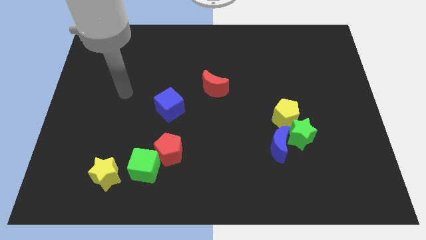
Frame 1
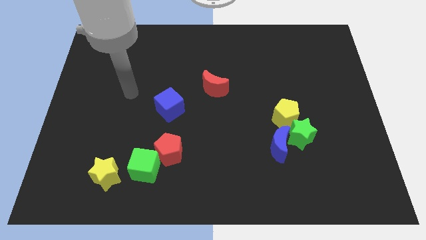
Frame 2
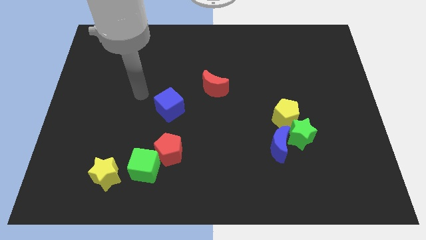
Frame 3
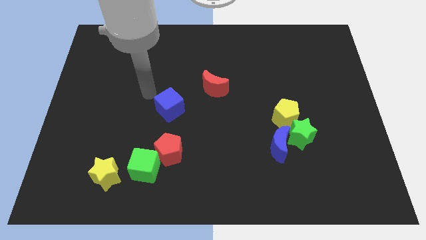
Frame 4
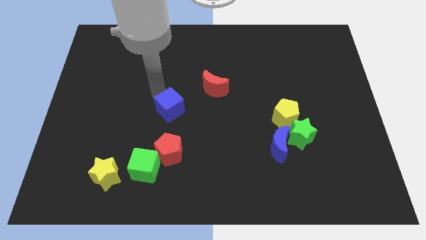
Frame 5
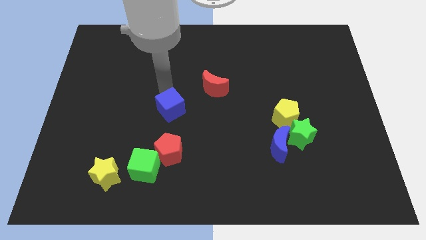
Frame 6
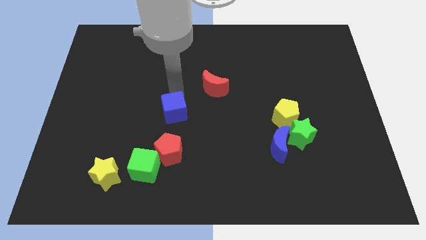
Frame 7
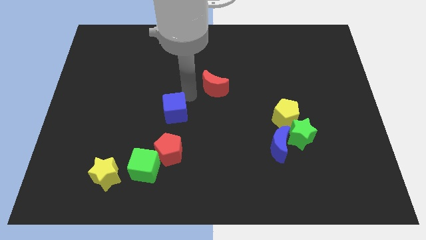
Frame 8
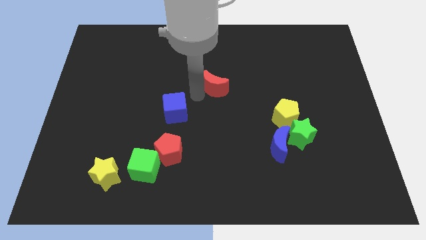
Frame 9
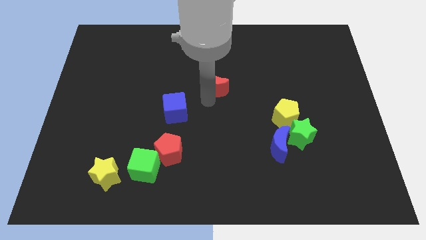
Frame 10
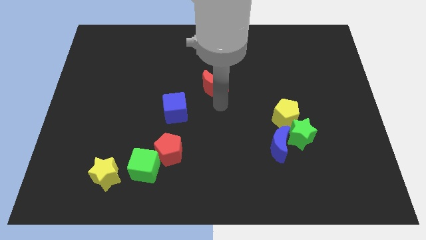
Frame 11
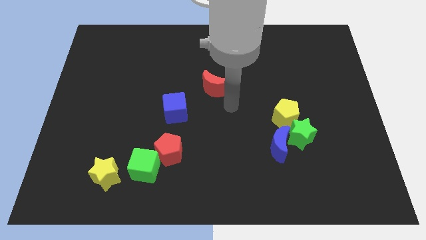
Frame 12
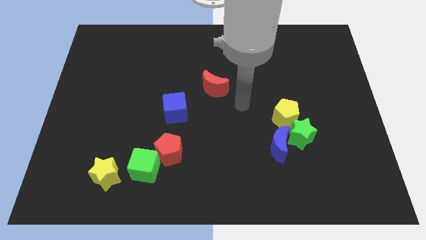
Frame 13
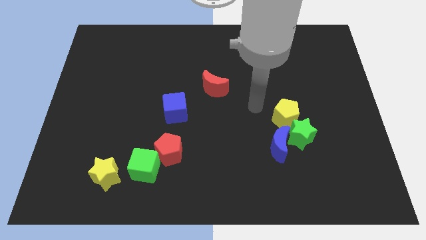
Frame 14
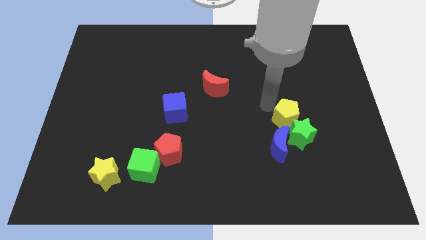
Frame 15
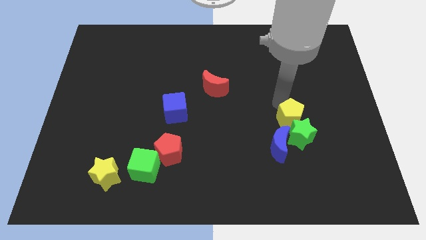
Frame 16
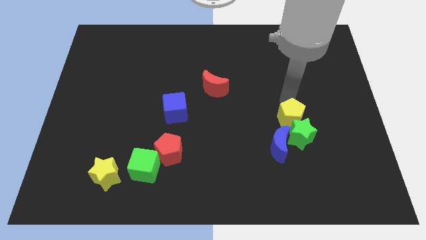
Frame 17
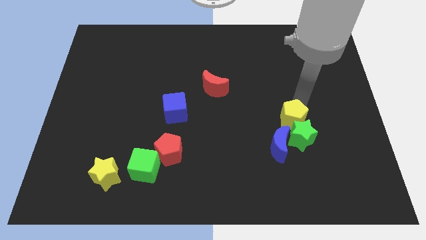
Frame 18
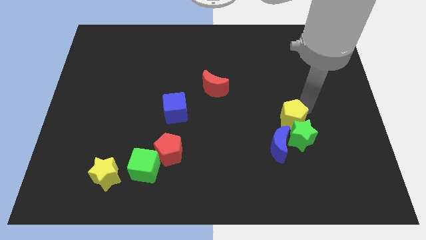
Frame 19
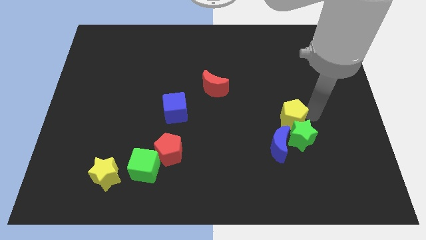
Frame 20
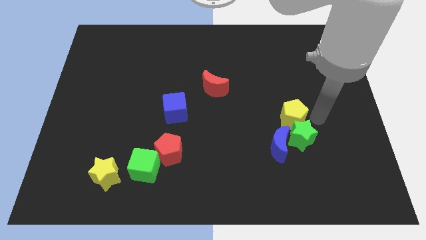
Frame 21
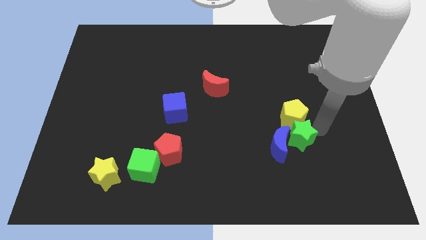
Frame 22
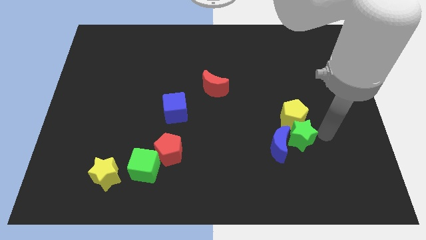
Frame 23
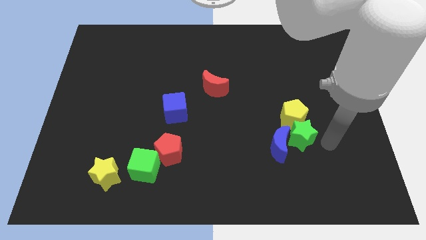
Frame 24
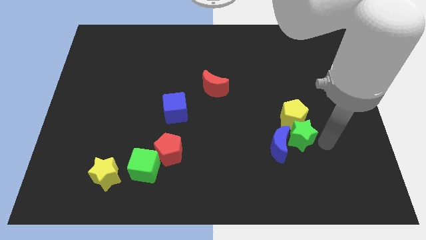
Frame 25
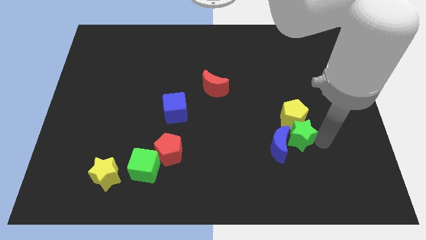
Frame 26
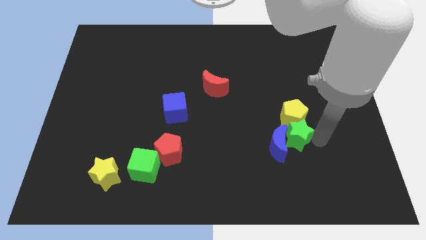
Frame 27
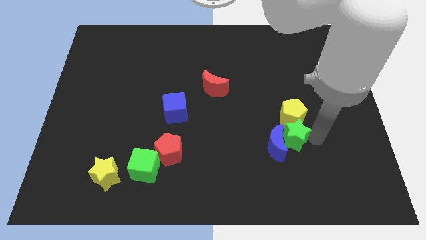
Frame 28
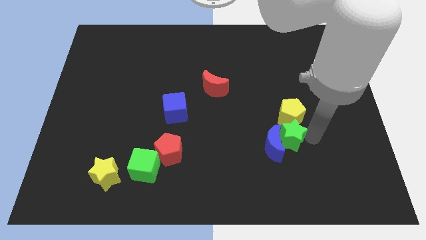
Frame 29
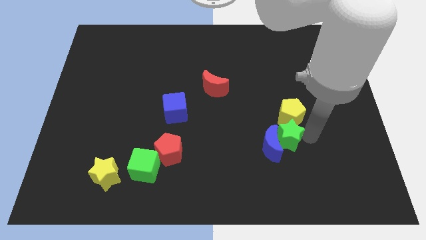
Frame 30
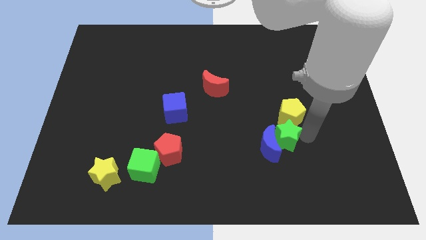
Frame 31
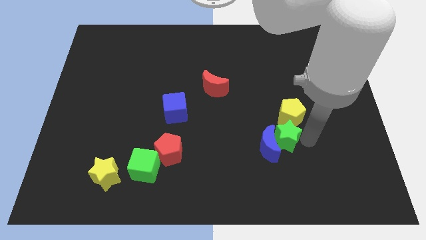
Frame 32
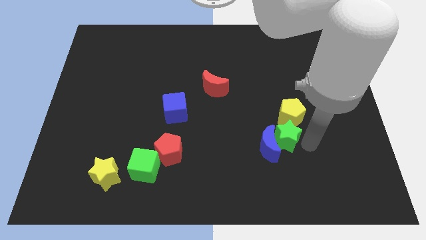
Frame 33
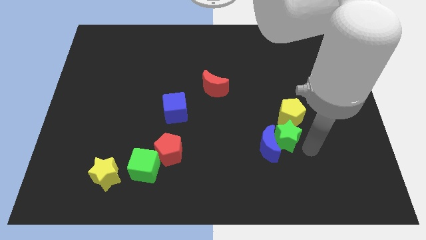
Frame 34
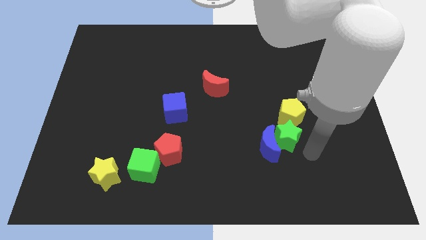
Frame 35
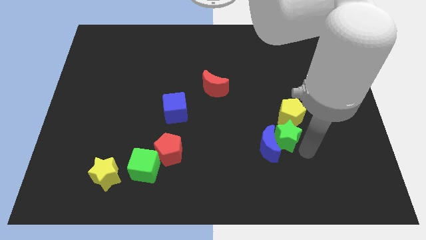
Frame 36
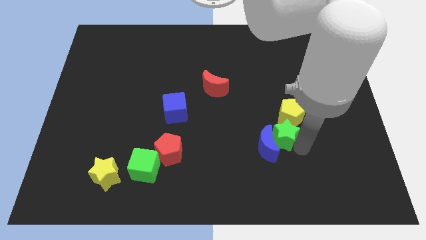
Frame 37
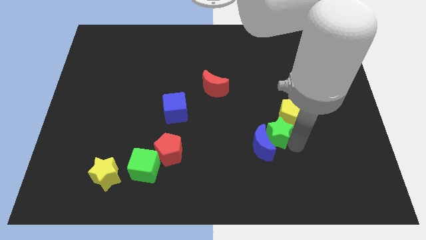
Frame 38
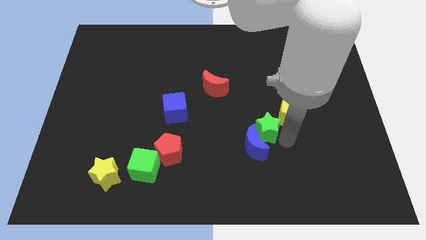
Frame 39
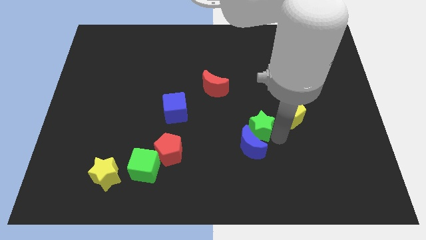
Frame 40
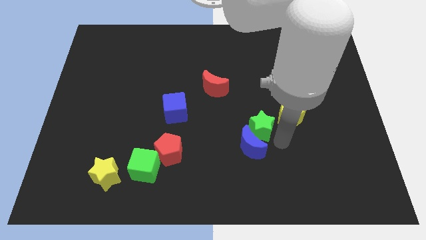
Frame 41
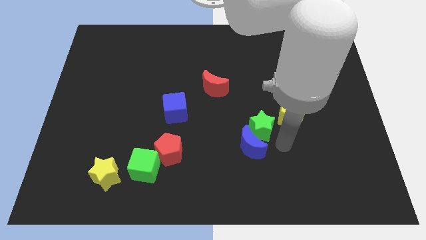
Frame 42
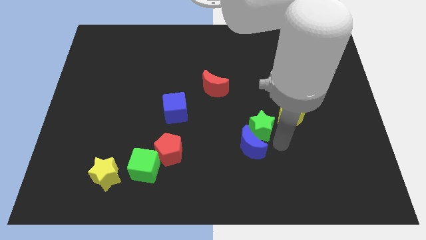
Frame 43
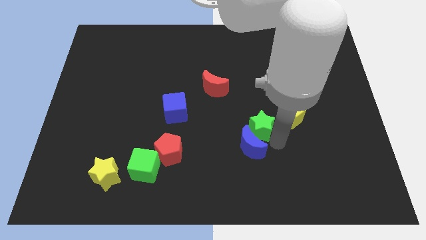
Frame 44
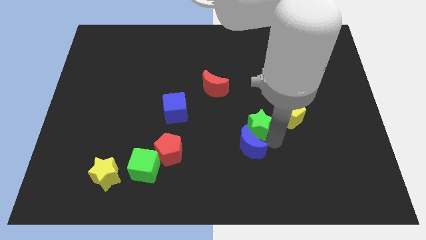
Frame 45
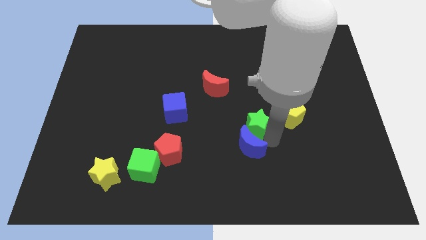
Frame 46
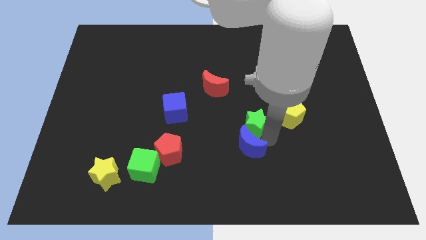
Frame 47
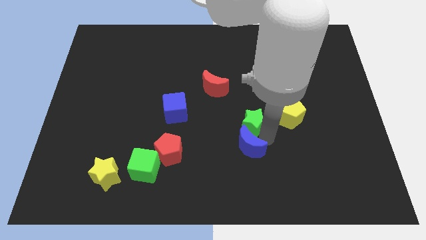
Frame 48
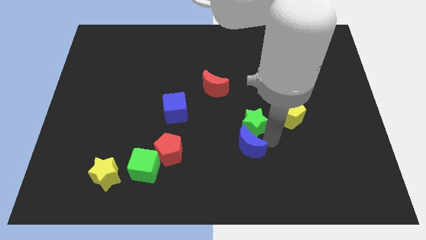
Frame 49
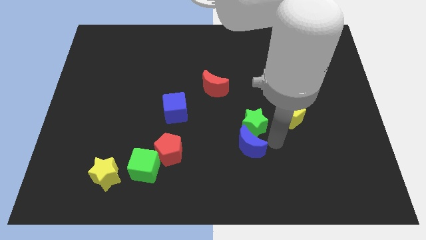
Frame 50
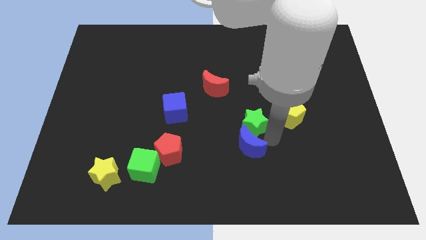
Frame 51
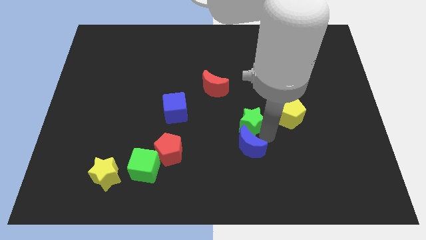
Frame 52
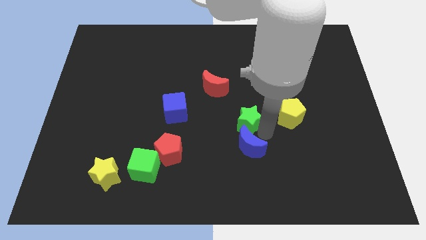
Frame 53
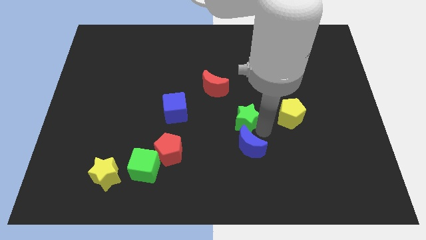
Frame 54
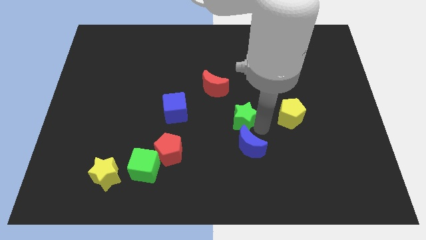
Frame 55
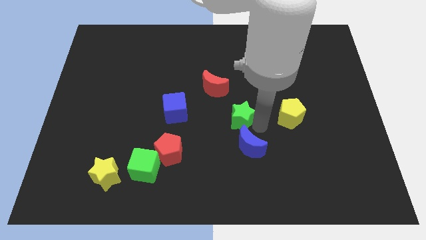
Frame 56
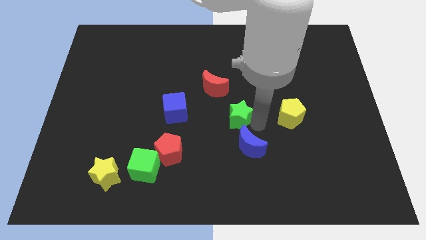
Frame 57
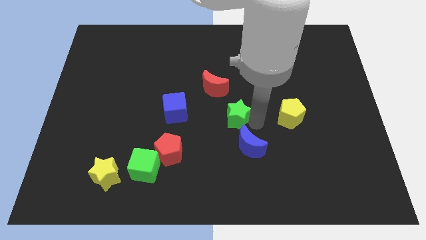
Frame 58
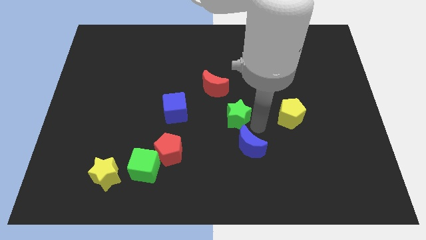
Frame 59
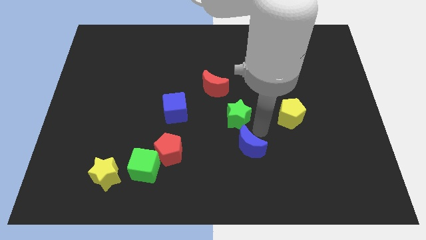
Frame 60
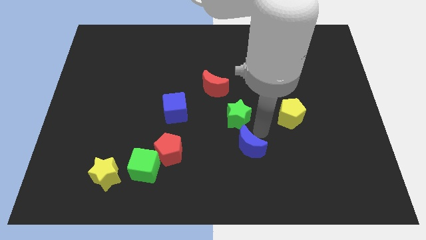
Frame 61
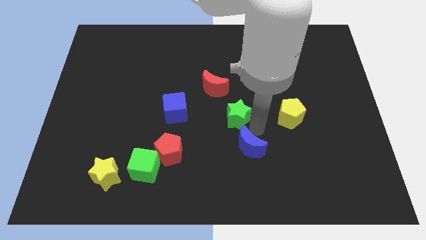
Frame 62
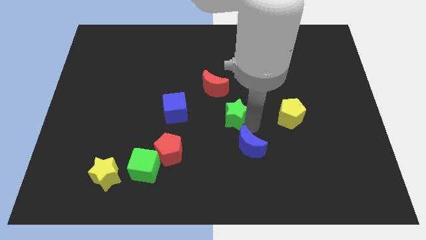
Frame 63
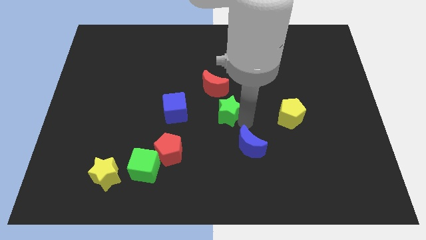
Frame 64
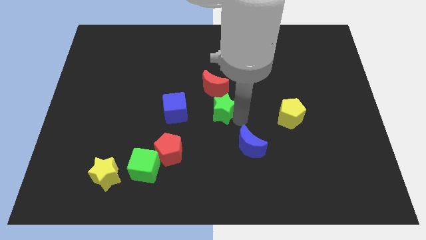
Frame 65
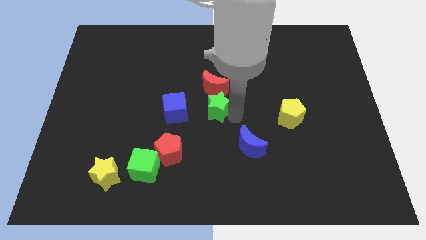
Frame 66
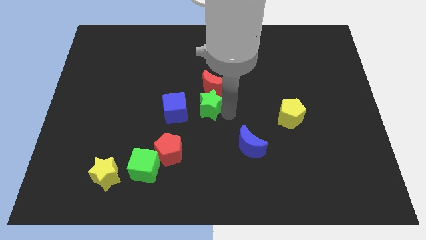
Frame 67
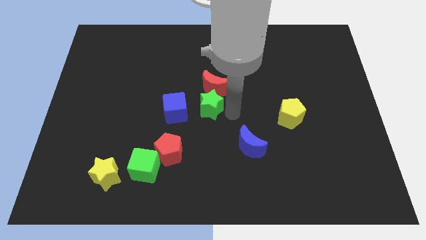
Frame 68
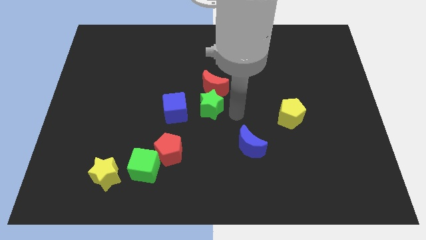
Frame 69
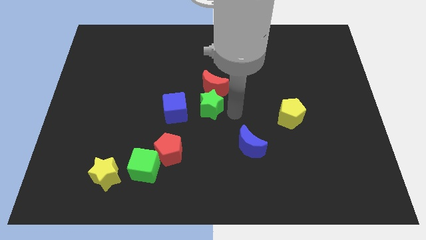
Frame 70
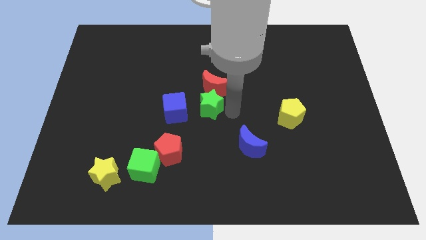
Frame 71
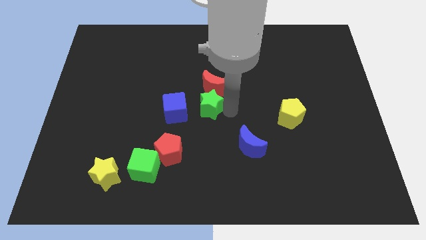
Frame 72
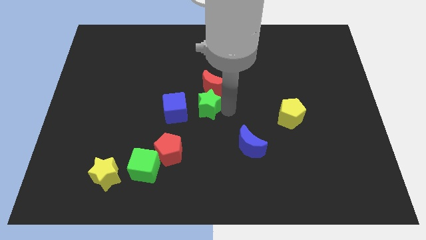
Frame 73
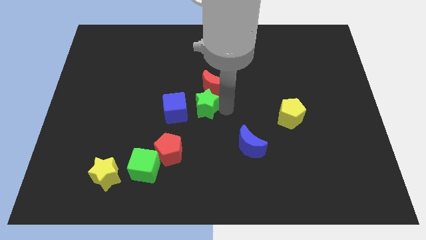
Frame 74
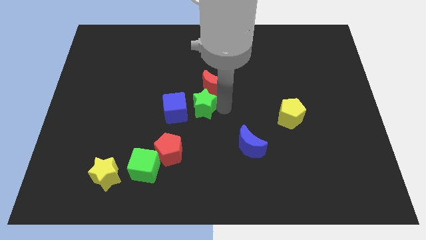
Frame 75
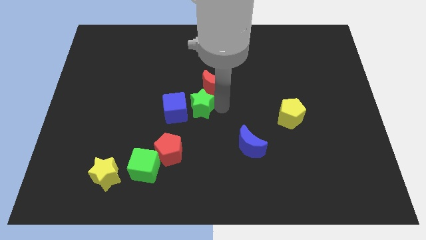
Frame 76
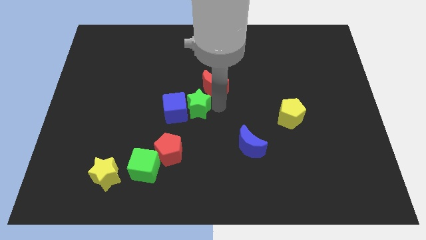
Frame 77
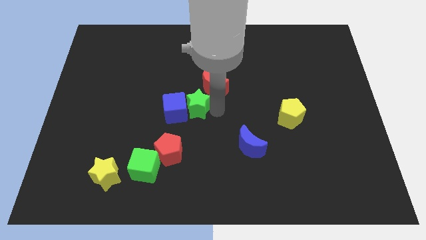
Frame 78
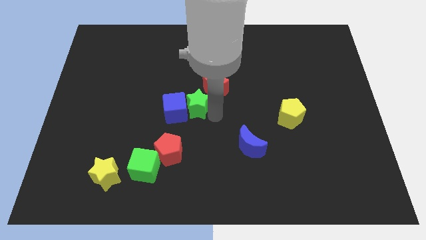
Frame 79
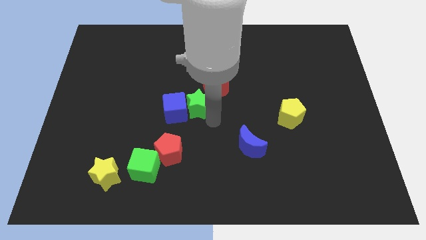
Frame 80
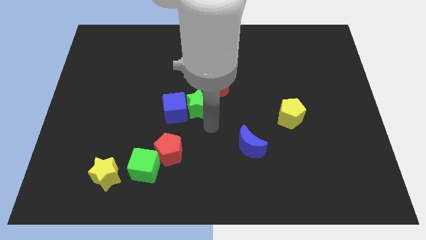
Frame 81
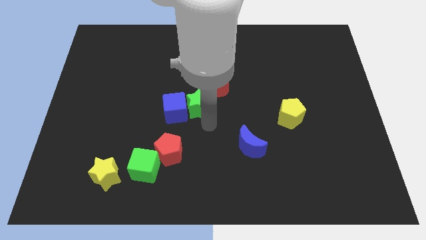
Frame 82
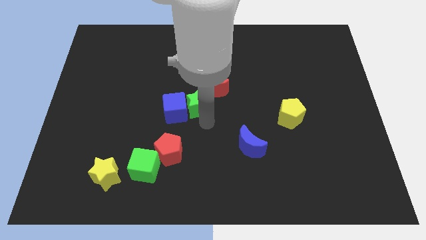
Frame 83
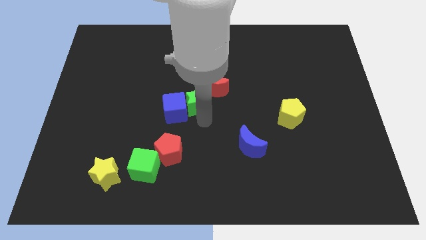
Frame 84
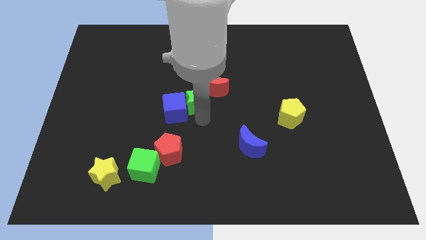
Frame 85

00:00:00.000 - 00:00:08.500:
push the green star left of the red moon
